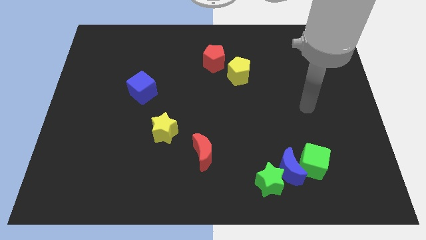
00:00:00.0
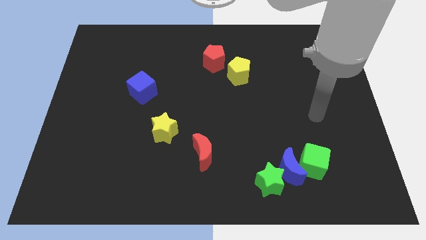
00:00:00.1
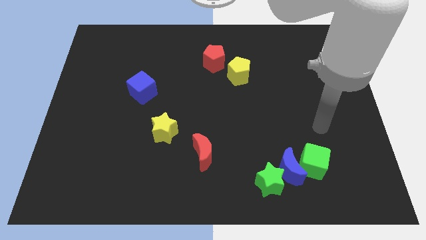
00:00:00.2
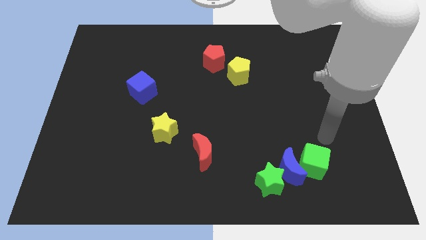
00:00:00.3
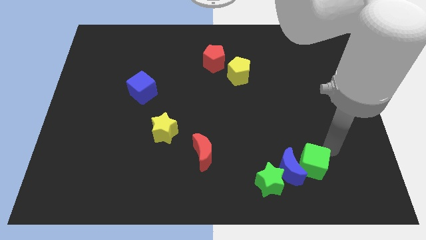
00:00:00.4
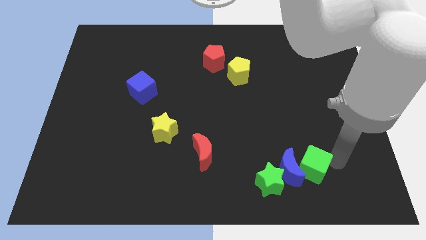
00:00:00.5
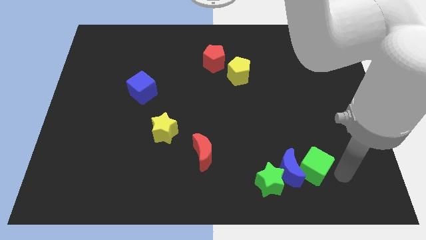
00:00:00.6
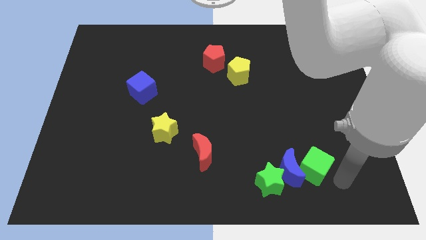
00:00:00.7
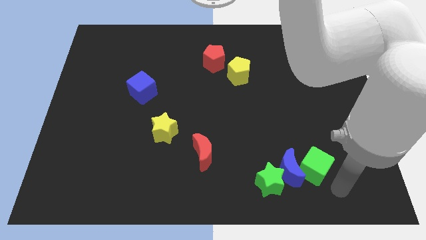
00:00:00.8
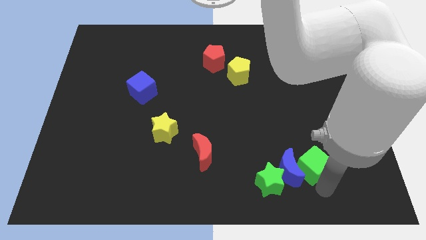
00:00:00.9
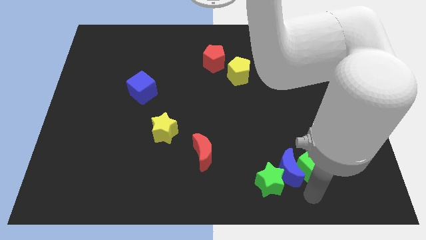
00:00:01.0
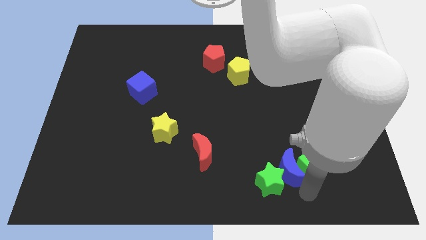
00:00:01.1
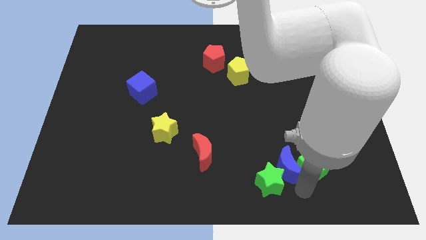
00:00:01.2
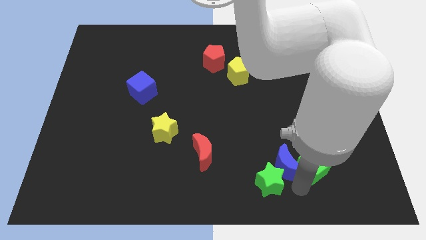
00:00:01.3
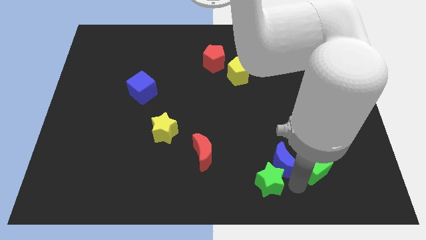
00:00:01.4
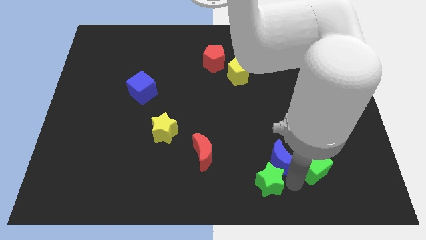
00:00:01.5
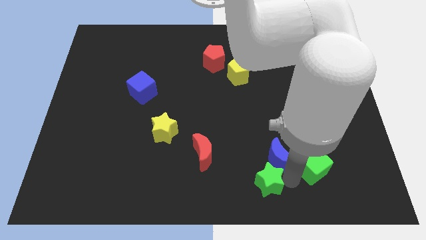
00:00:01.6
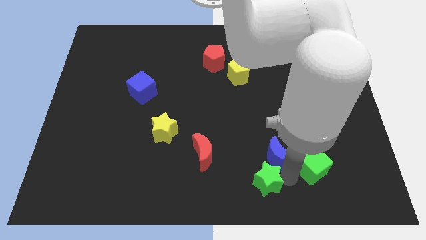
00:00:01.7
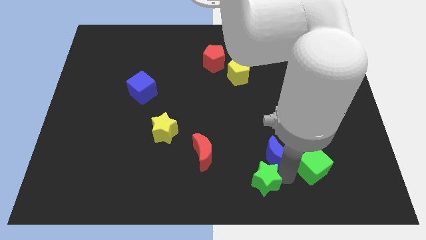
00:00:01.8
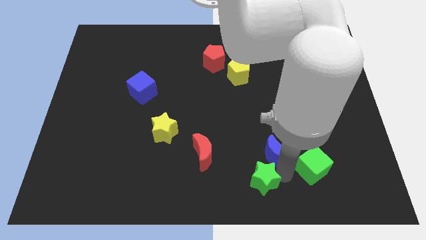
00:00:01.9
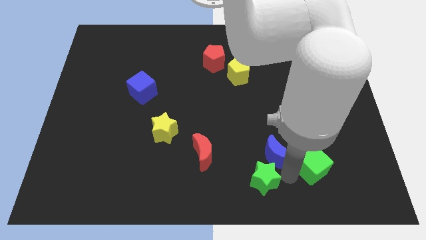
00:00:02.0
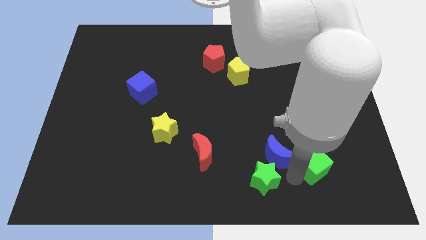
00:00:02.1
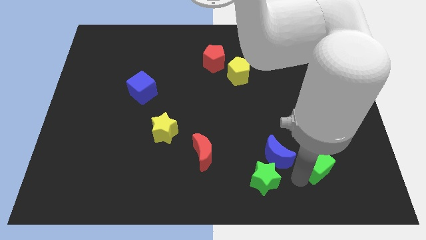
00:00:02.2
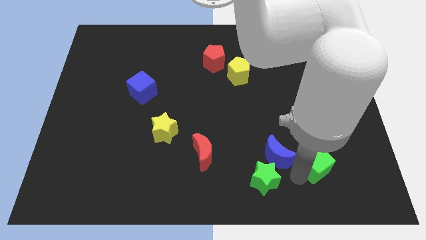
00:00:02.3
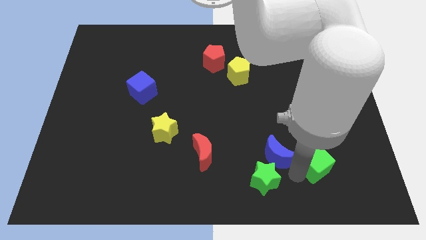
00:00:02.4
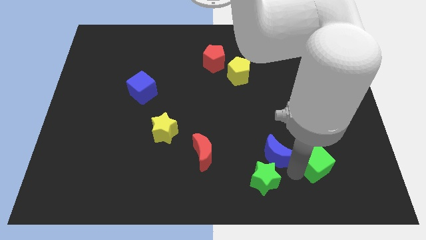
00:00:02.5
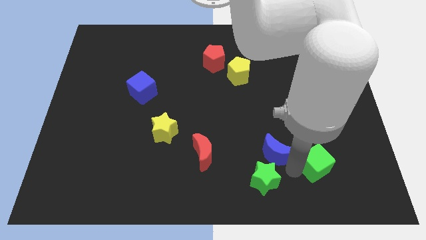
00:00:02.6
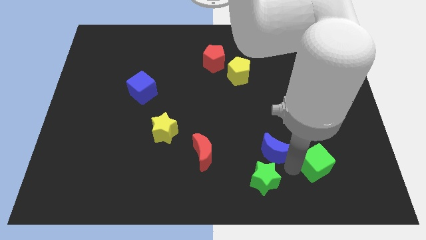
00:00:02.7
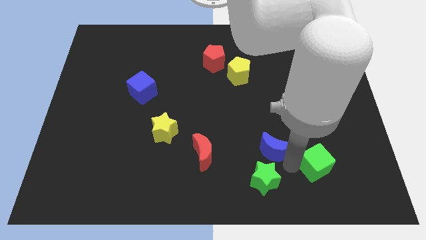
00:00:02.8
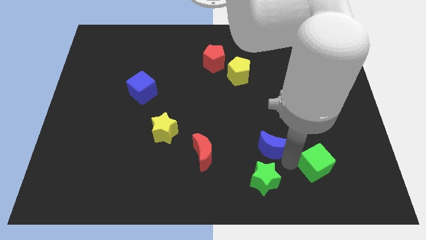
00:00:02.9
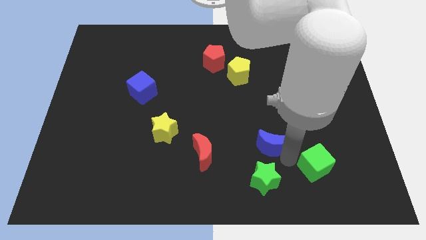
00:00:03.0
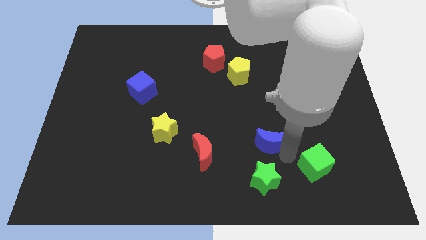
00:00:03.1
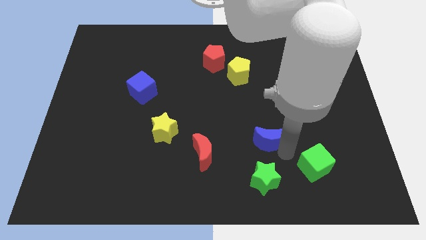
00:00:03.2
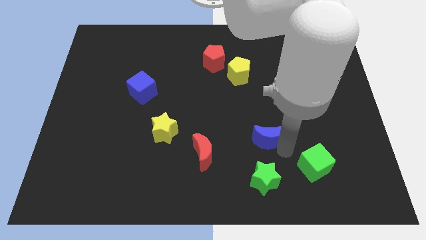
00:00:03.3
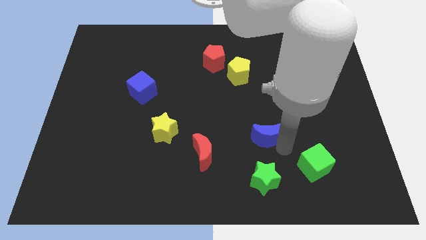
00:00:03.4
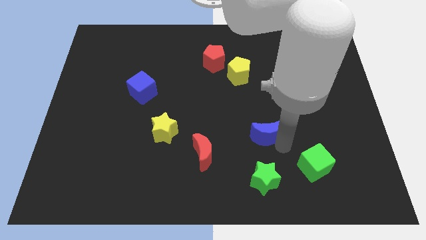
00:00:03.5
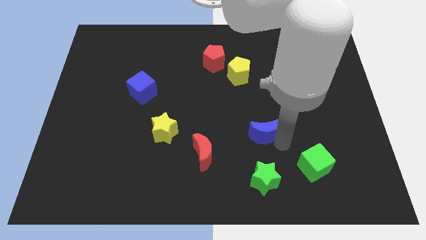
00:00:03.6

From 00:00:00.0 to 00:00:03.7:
move the blue moon away from the green star and green cube

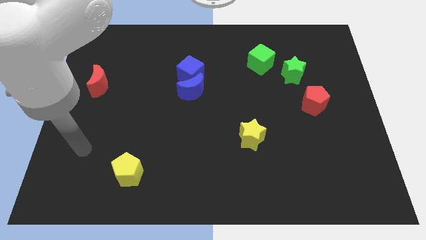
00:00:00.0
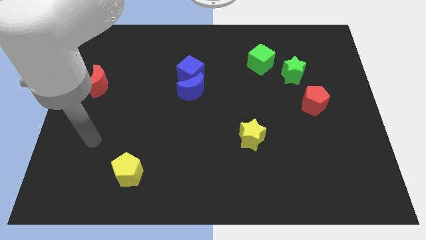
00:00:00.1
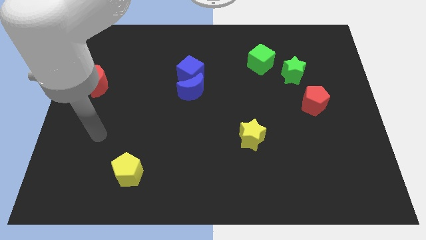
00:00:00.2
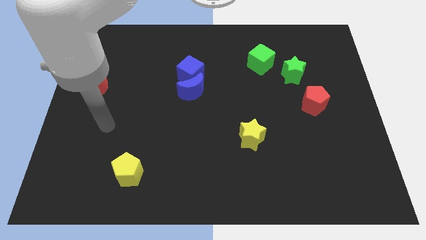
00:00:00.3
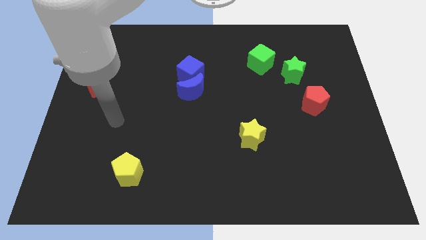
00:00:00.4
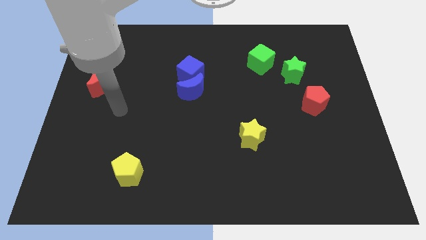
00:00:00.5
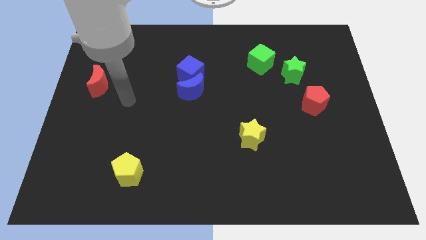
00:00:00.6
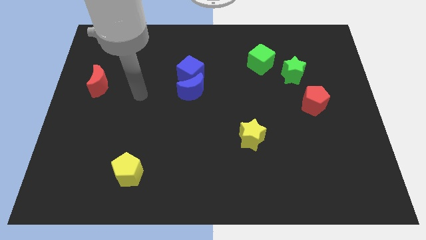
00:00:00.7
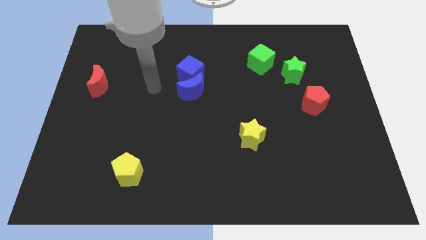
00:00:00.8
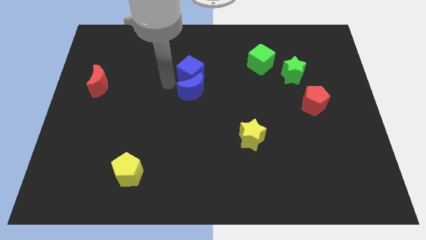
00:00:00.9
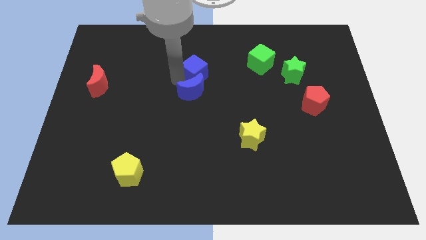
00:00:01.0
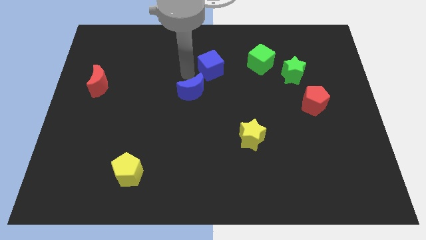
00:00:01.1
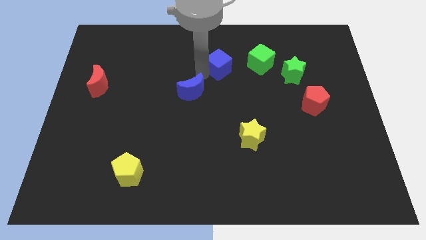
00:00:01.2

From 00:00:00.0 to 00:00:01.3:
move the blue moon away from the blue cube

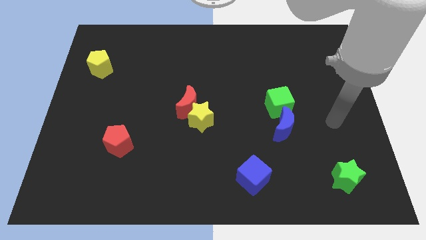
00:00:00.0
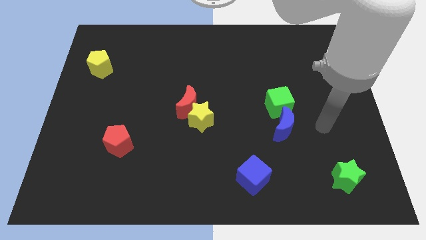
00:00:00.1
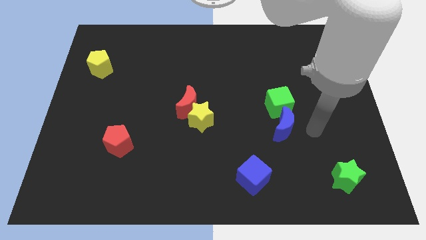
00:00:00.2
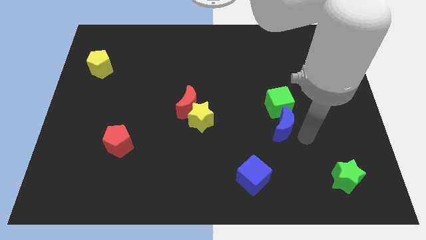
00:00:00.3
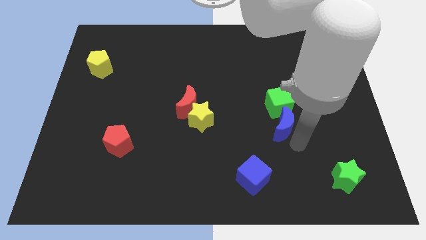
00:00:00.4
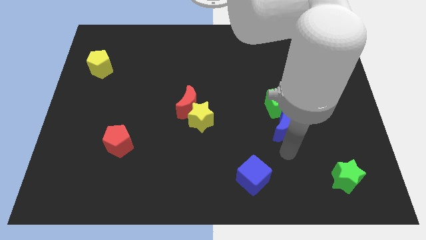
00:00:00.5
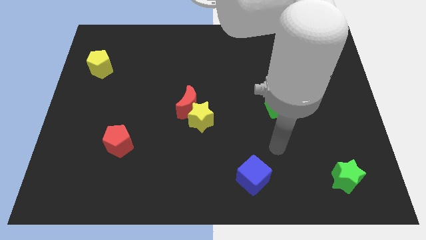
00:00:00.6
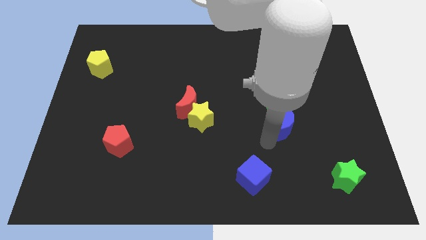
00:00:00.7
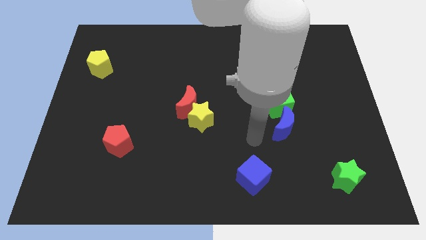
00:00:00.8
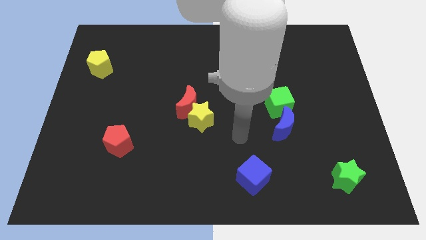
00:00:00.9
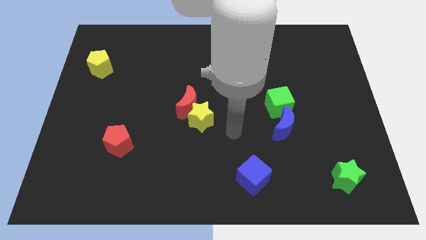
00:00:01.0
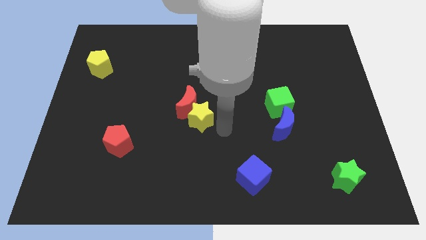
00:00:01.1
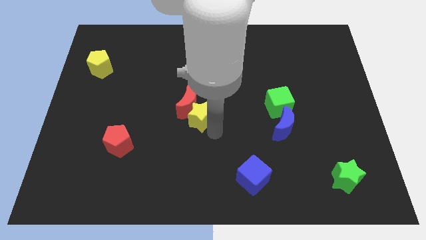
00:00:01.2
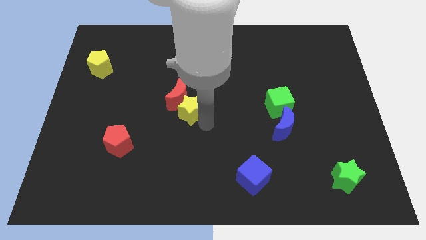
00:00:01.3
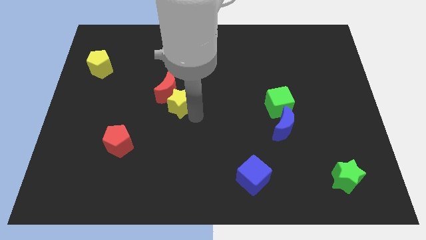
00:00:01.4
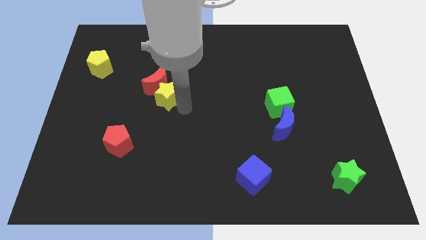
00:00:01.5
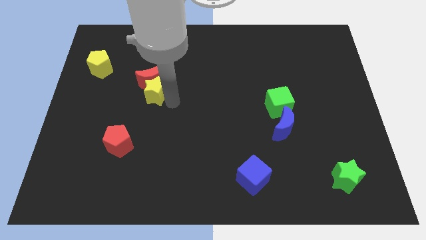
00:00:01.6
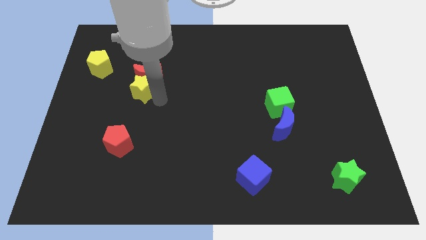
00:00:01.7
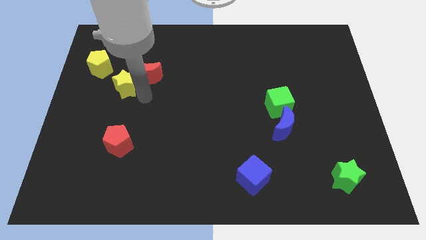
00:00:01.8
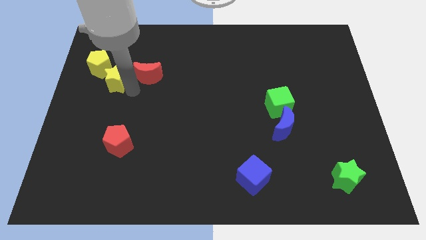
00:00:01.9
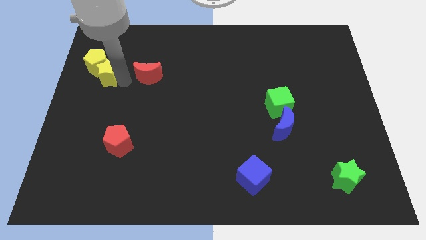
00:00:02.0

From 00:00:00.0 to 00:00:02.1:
move the red moon away from the yellow star

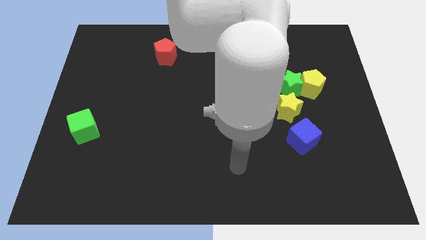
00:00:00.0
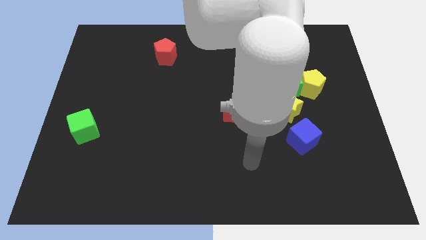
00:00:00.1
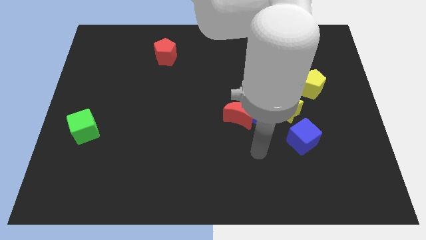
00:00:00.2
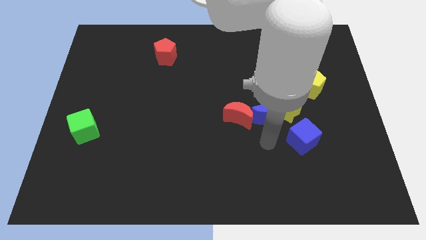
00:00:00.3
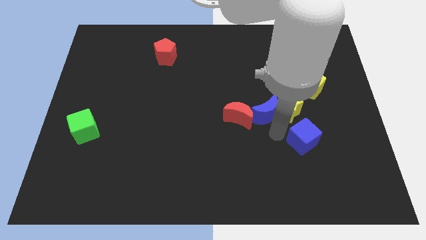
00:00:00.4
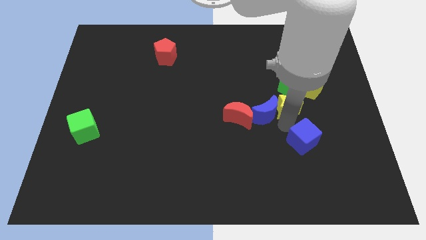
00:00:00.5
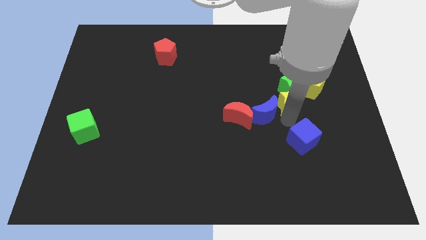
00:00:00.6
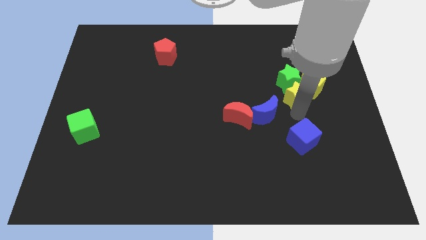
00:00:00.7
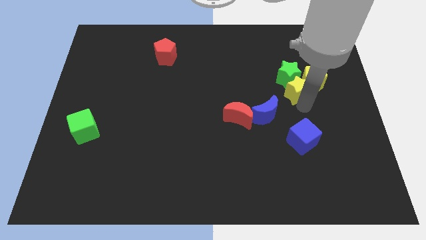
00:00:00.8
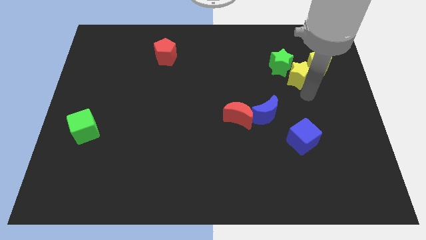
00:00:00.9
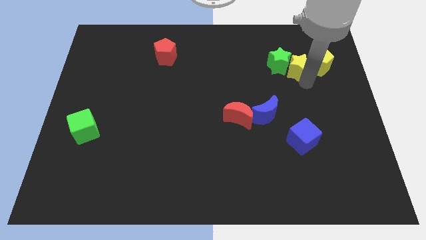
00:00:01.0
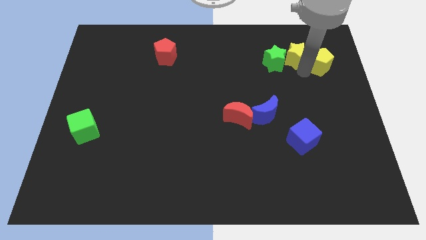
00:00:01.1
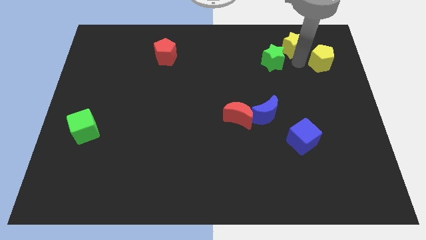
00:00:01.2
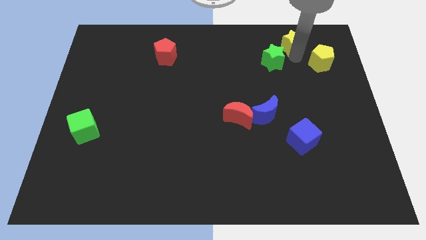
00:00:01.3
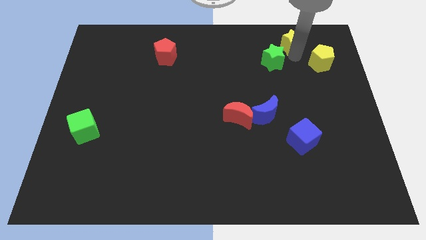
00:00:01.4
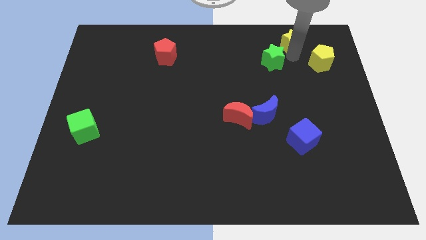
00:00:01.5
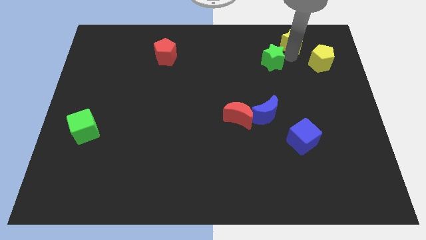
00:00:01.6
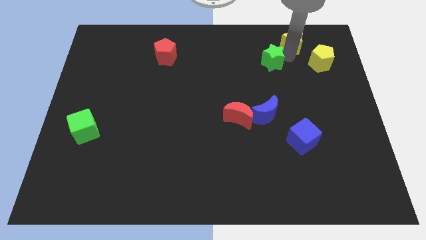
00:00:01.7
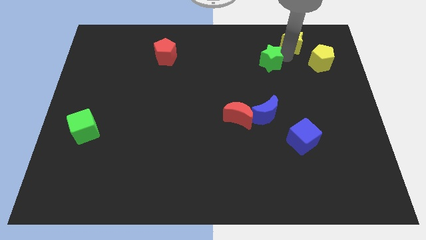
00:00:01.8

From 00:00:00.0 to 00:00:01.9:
move the green star away from the yellow pentagon and yellow star

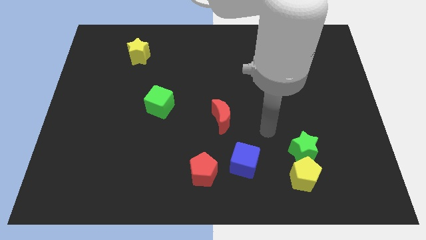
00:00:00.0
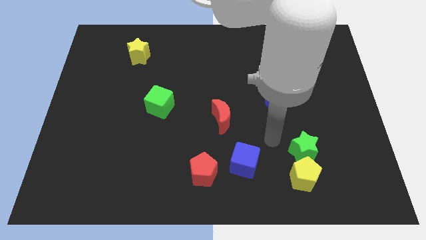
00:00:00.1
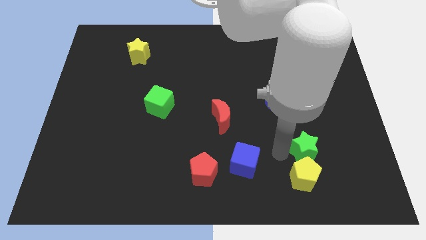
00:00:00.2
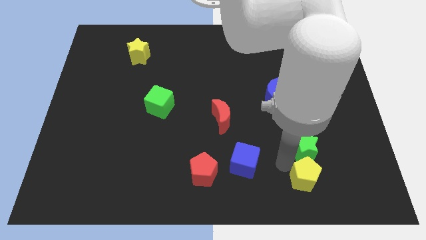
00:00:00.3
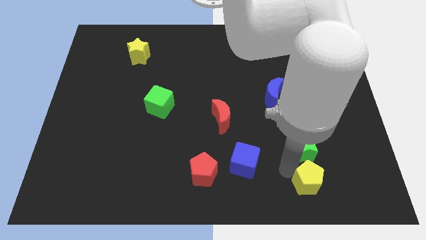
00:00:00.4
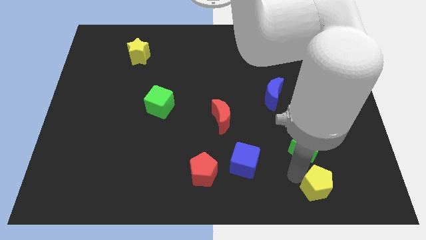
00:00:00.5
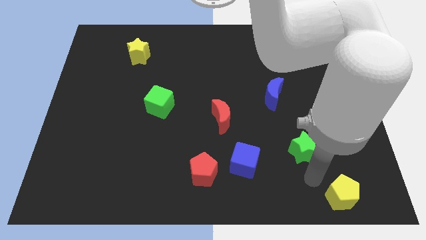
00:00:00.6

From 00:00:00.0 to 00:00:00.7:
separate the green star from the yellow pentagon
